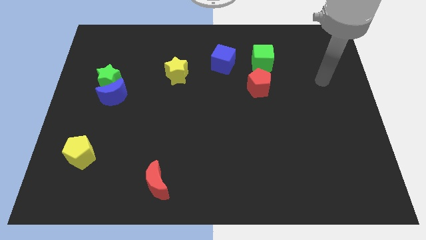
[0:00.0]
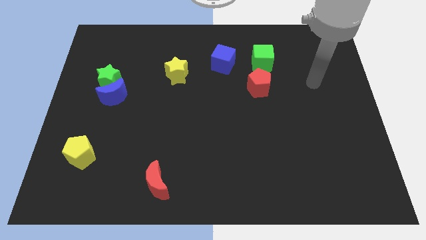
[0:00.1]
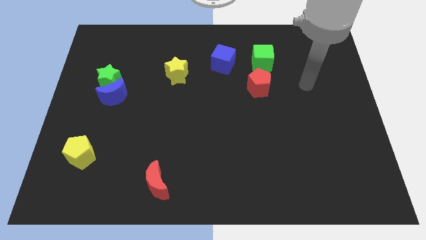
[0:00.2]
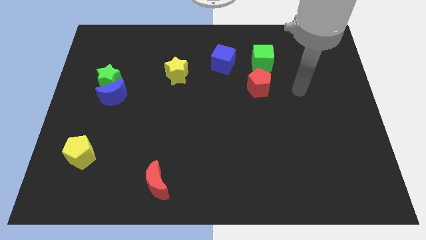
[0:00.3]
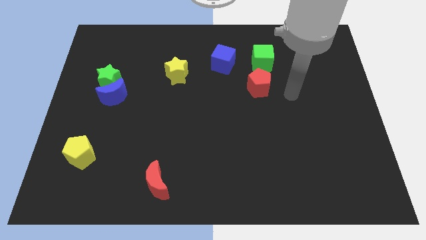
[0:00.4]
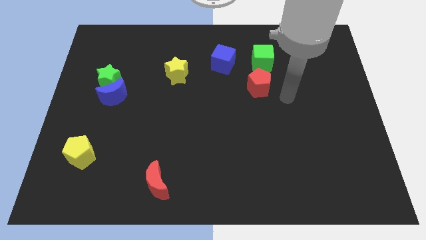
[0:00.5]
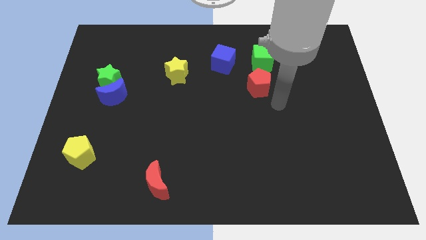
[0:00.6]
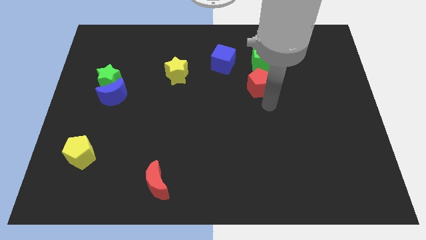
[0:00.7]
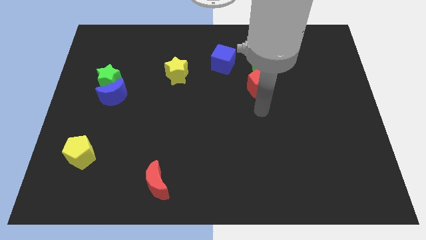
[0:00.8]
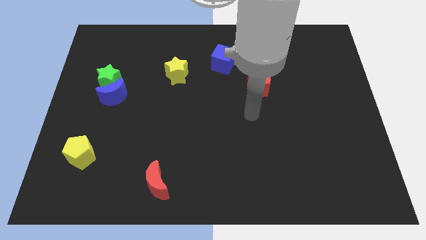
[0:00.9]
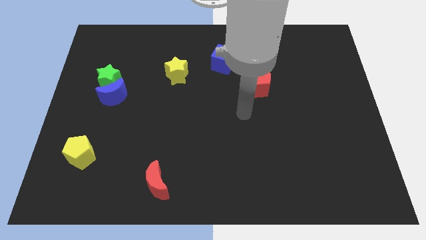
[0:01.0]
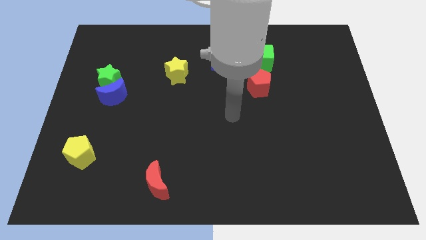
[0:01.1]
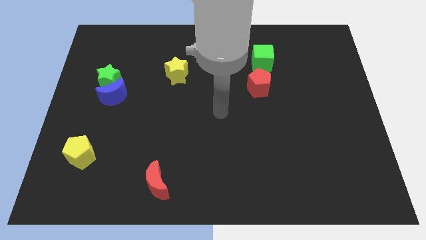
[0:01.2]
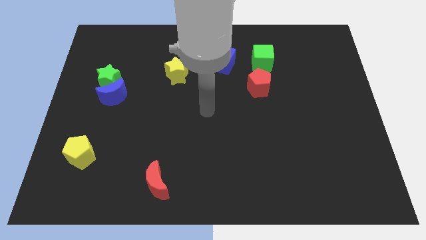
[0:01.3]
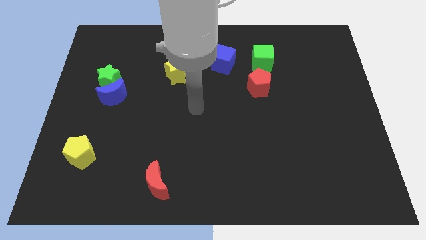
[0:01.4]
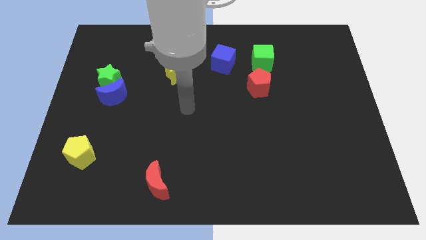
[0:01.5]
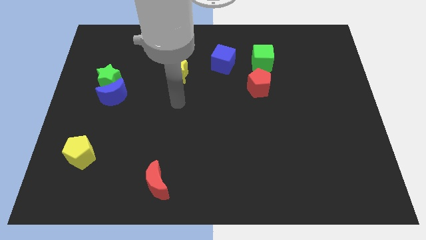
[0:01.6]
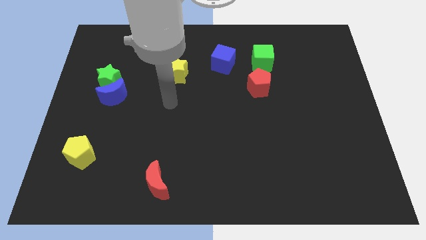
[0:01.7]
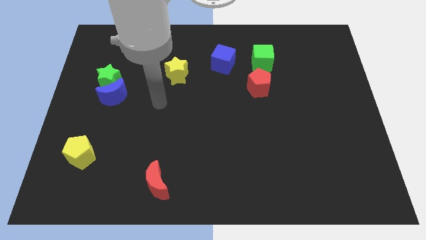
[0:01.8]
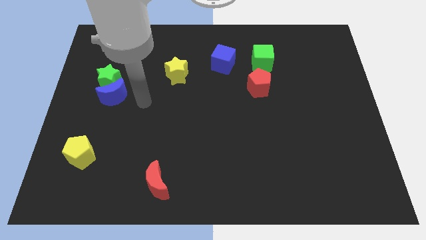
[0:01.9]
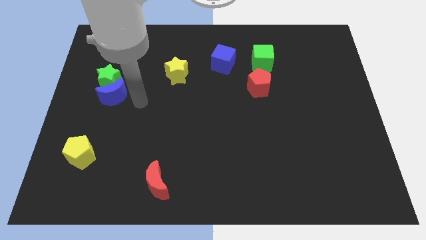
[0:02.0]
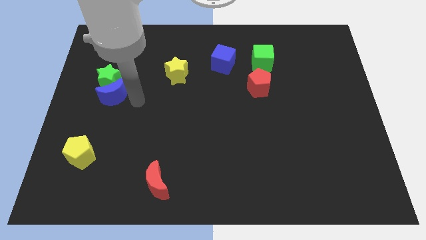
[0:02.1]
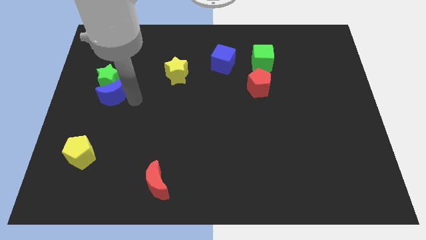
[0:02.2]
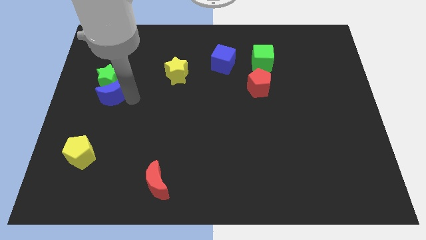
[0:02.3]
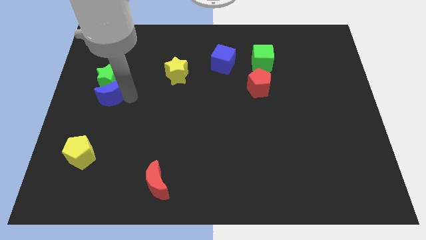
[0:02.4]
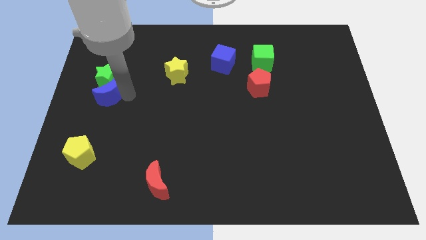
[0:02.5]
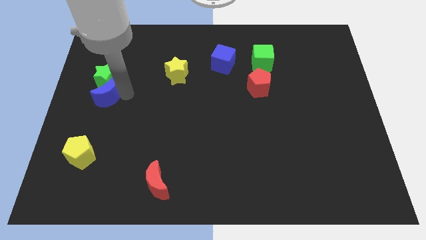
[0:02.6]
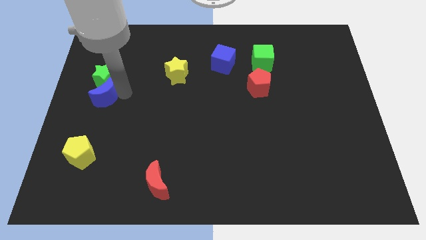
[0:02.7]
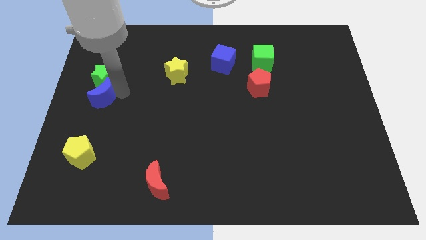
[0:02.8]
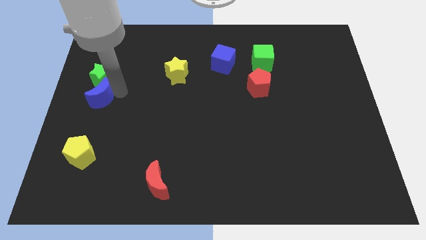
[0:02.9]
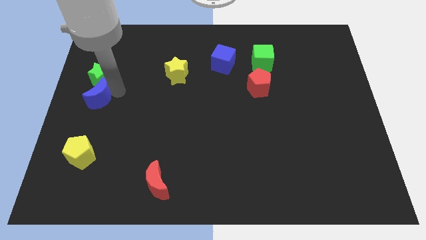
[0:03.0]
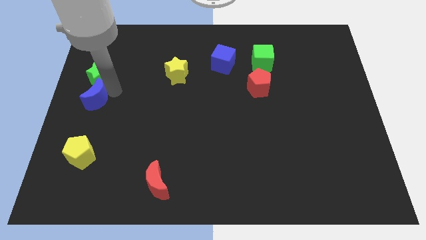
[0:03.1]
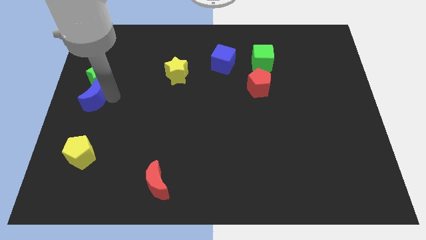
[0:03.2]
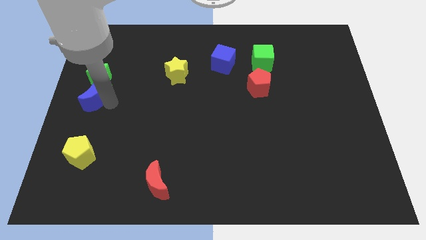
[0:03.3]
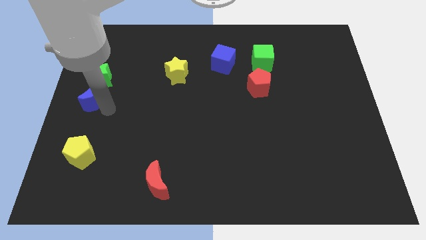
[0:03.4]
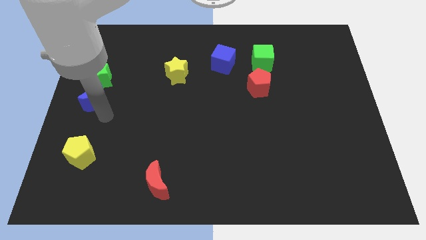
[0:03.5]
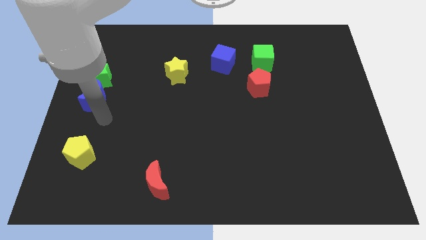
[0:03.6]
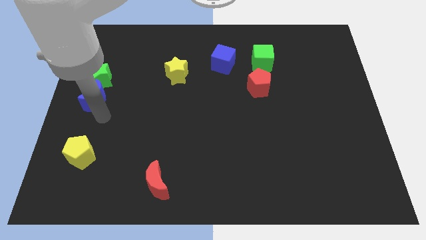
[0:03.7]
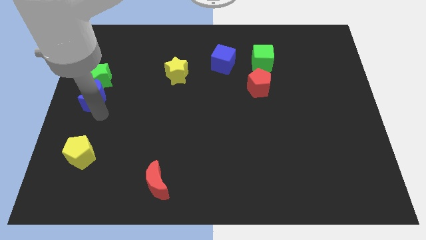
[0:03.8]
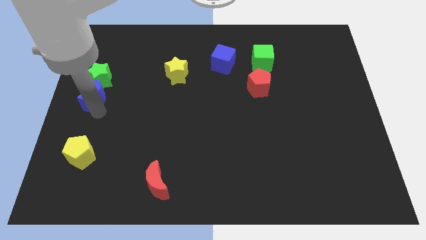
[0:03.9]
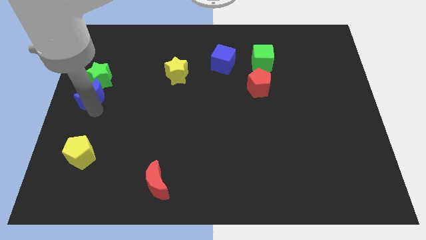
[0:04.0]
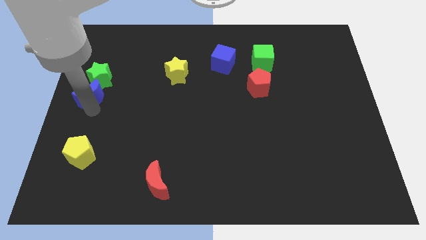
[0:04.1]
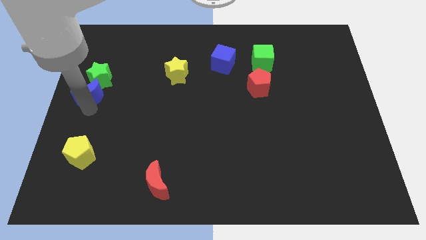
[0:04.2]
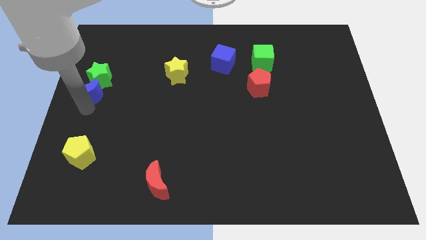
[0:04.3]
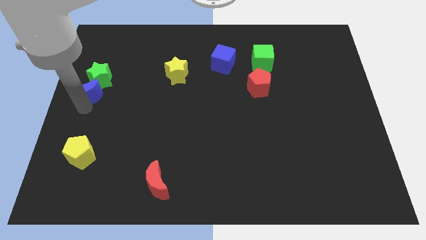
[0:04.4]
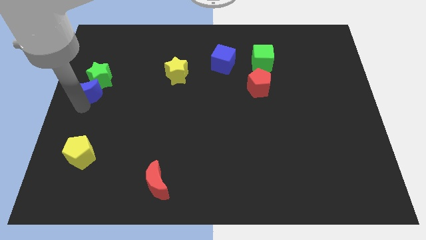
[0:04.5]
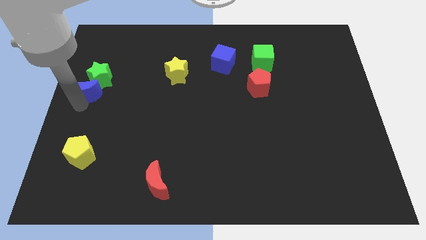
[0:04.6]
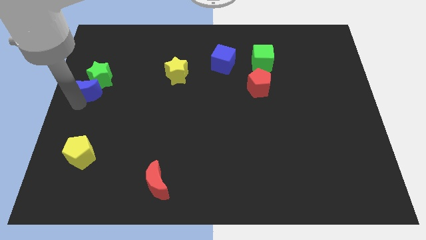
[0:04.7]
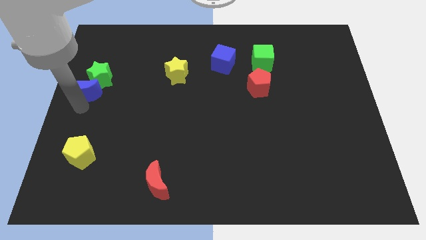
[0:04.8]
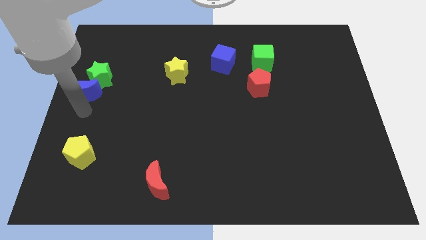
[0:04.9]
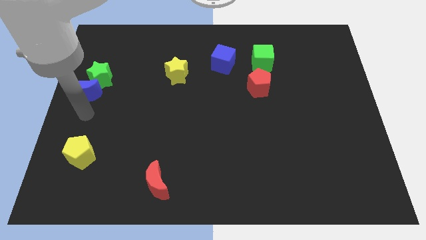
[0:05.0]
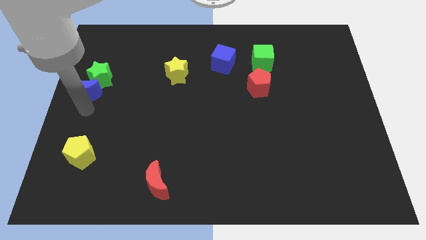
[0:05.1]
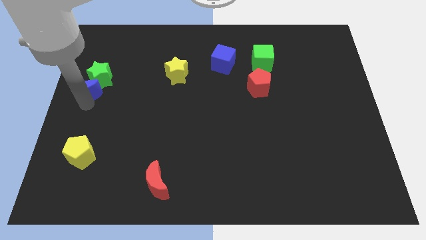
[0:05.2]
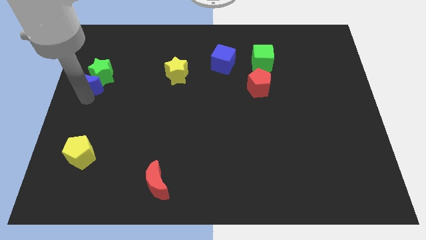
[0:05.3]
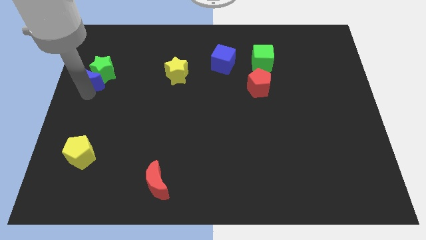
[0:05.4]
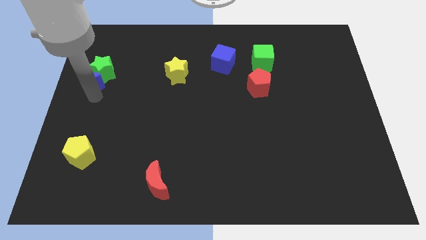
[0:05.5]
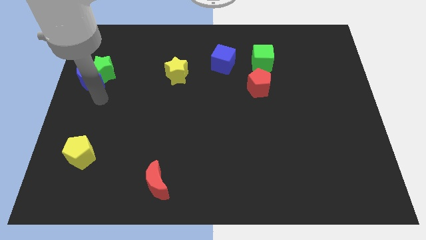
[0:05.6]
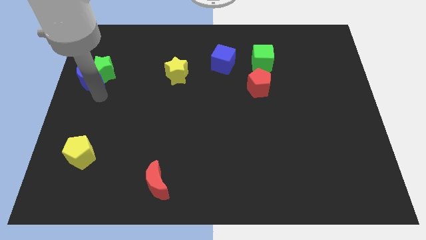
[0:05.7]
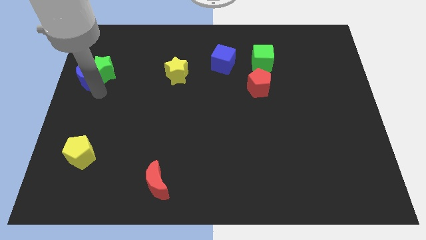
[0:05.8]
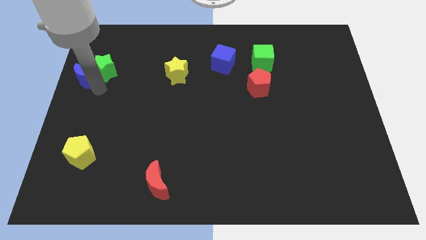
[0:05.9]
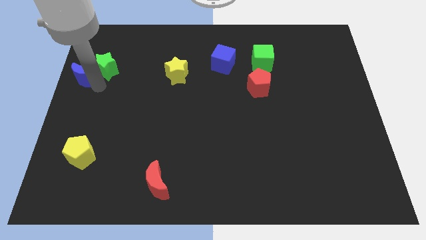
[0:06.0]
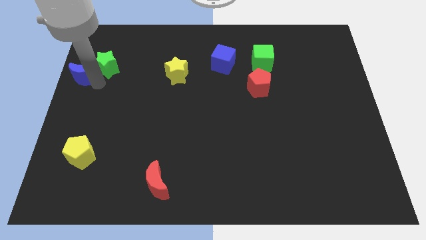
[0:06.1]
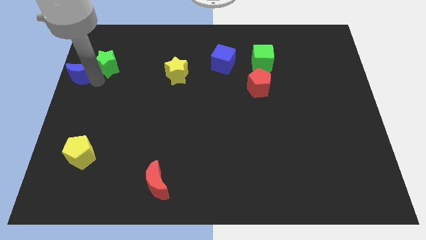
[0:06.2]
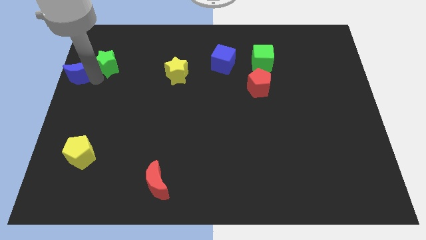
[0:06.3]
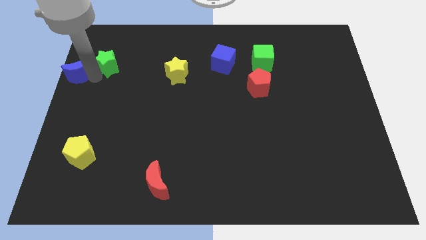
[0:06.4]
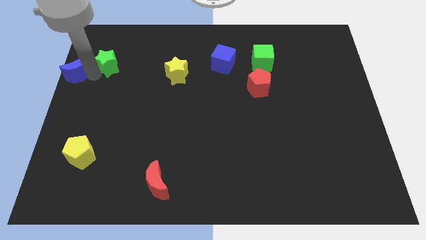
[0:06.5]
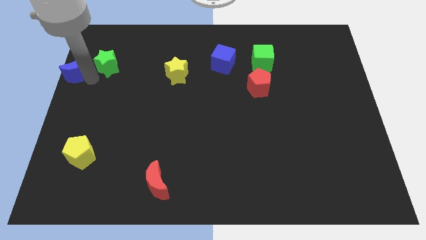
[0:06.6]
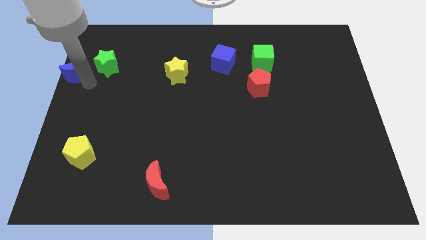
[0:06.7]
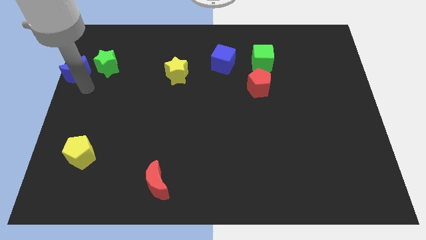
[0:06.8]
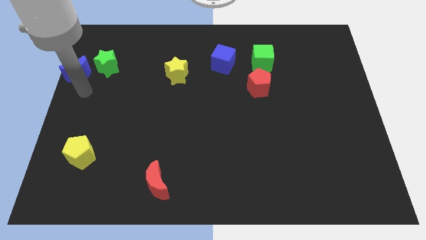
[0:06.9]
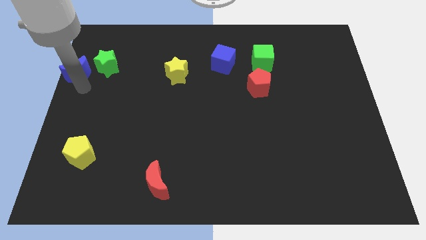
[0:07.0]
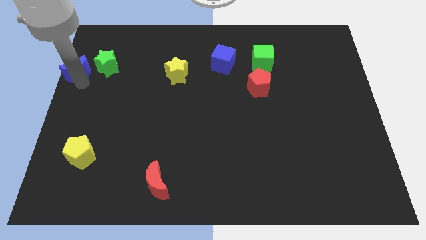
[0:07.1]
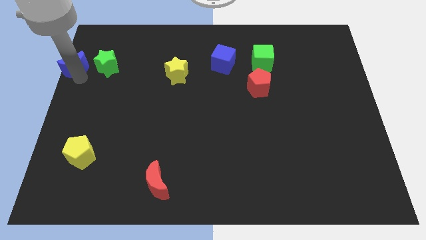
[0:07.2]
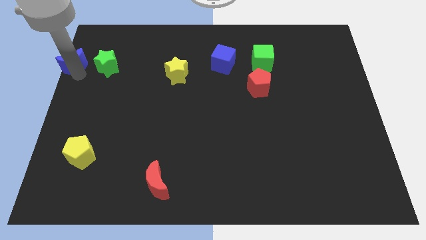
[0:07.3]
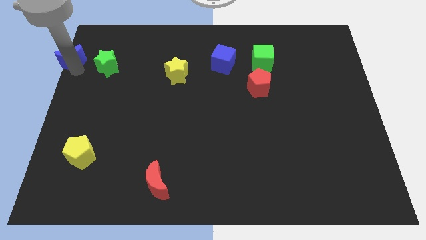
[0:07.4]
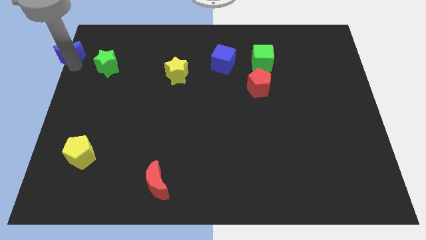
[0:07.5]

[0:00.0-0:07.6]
slide the blue moon to the top left corner
